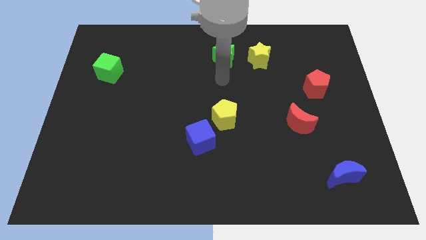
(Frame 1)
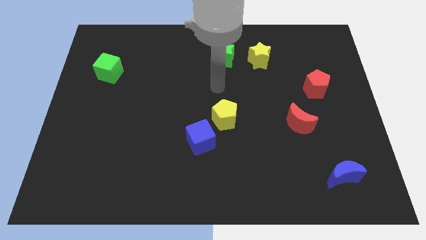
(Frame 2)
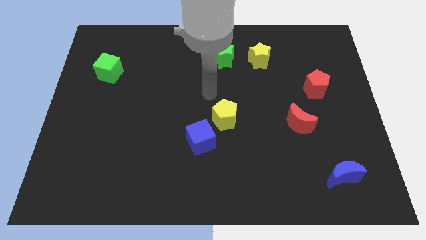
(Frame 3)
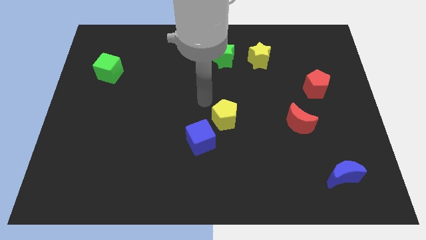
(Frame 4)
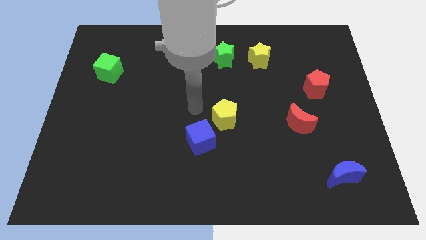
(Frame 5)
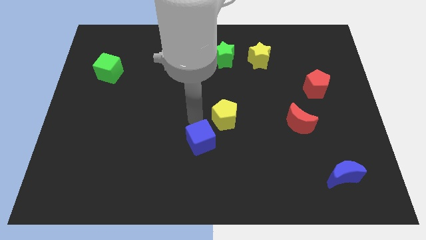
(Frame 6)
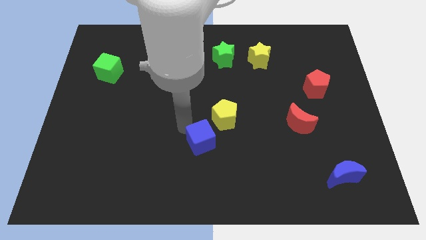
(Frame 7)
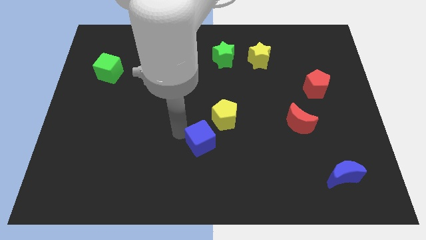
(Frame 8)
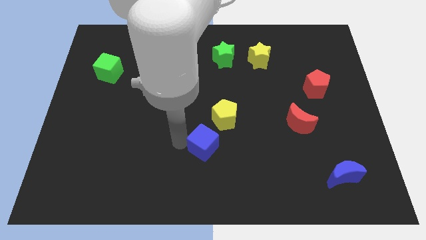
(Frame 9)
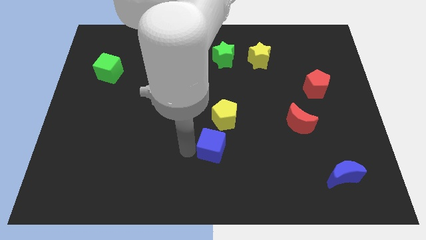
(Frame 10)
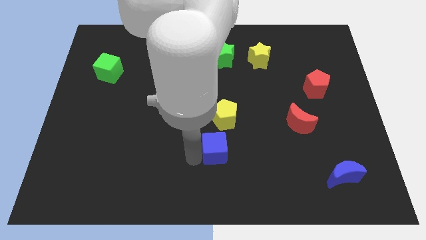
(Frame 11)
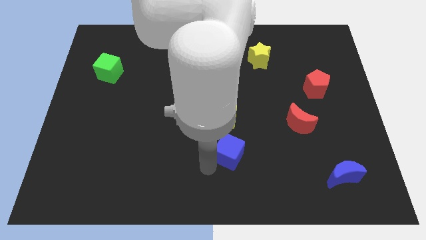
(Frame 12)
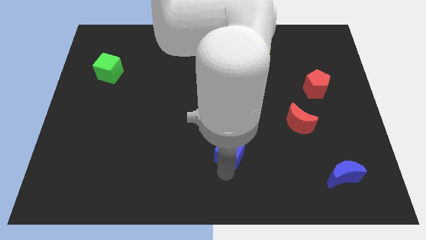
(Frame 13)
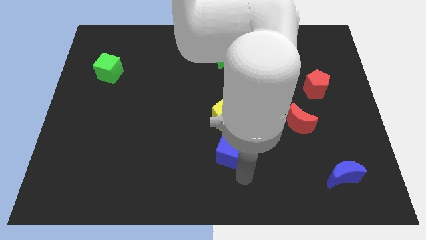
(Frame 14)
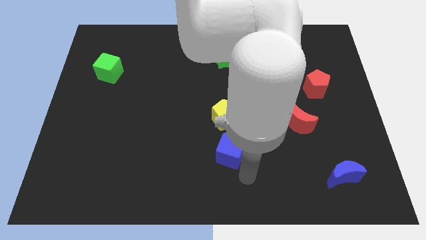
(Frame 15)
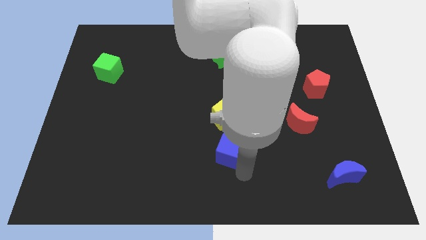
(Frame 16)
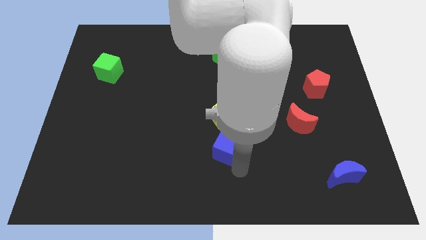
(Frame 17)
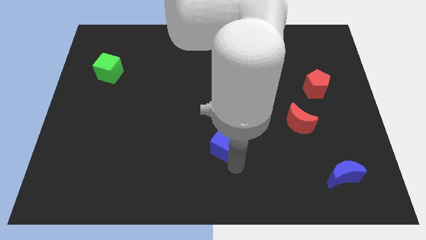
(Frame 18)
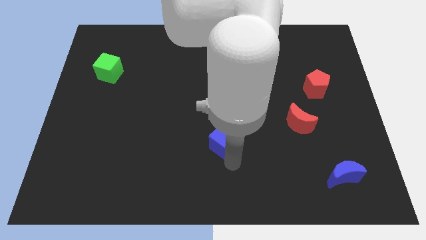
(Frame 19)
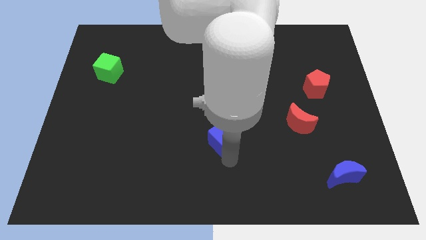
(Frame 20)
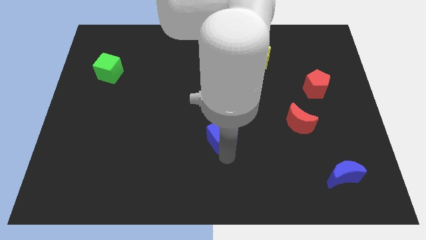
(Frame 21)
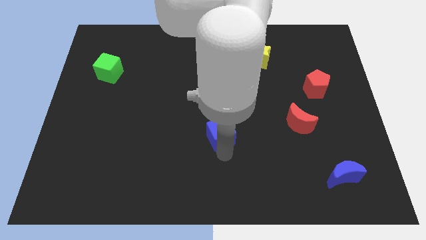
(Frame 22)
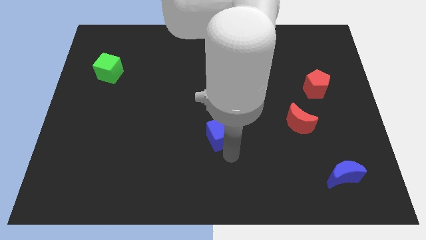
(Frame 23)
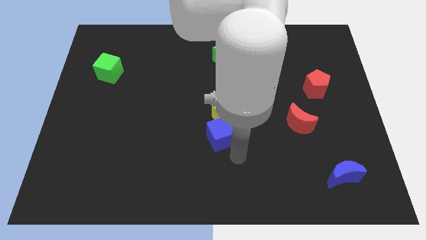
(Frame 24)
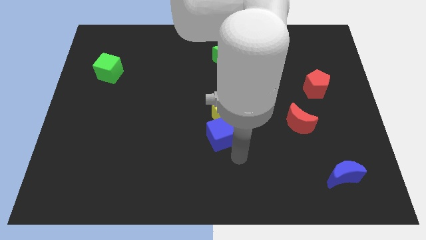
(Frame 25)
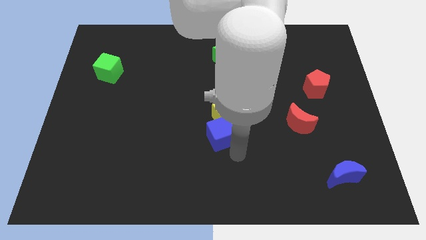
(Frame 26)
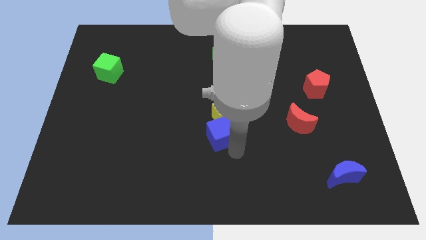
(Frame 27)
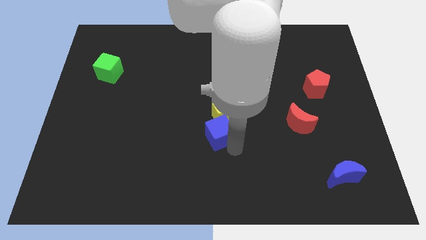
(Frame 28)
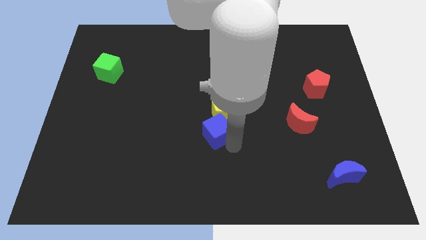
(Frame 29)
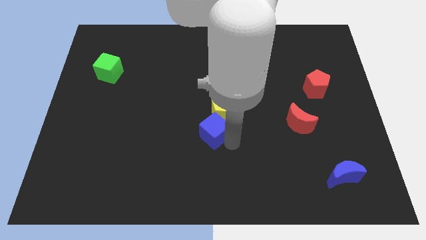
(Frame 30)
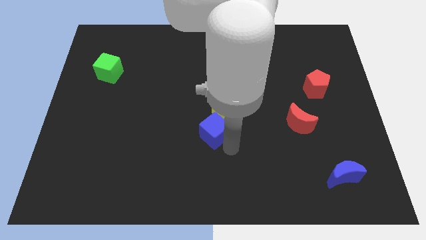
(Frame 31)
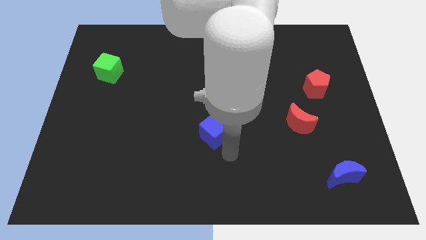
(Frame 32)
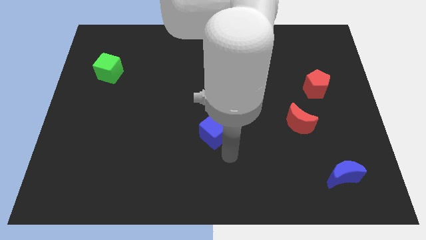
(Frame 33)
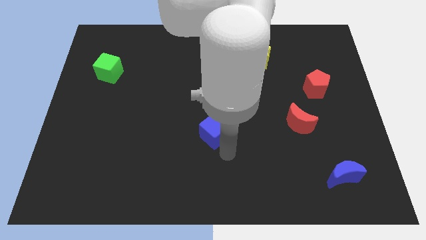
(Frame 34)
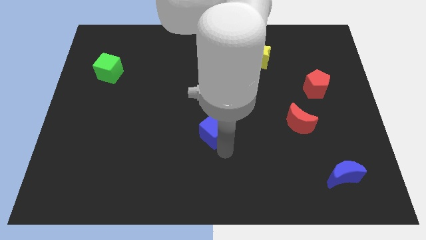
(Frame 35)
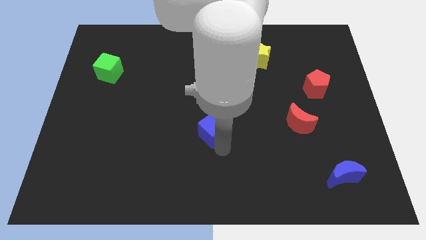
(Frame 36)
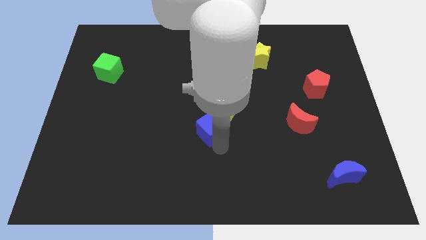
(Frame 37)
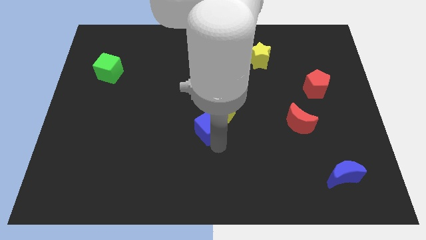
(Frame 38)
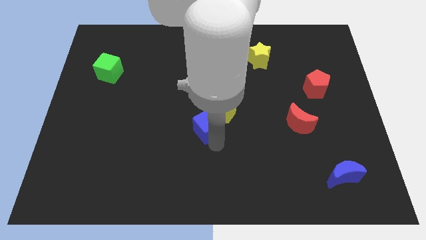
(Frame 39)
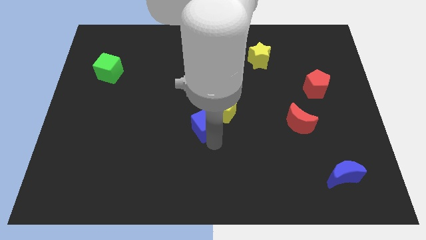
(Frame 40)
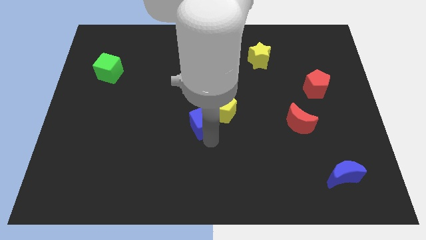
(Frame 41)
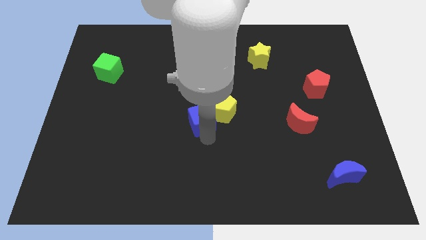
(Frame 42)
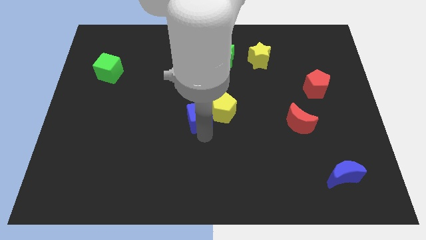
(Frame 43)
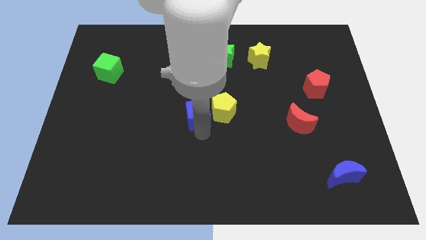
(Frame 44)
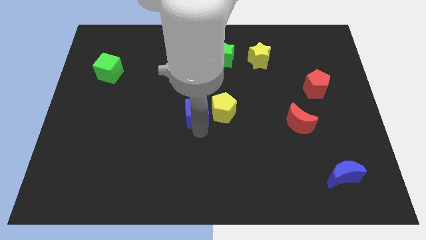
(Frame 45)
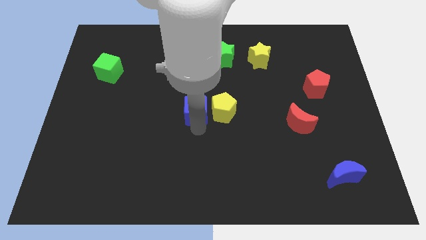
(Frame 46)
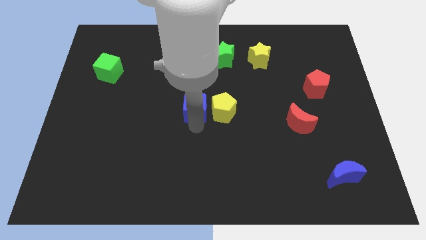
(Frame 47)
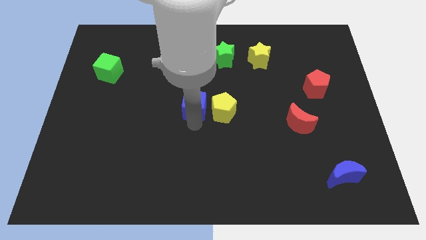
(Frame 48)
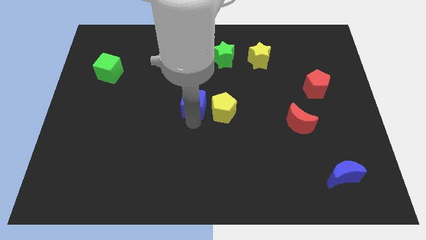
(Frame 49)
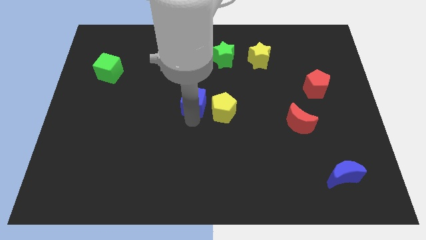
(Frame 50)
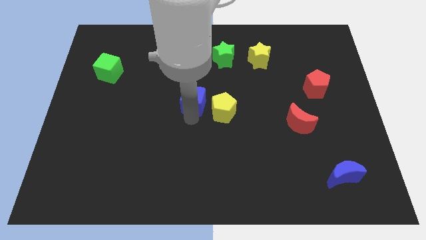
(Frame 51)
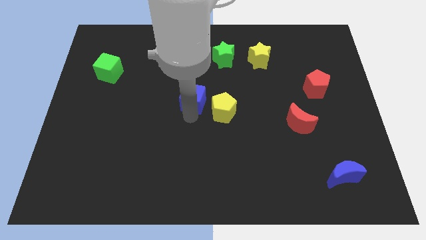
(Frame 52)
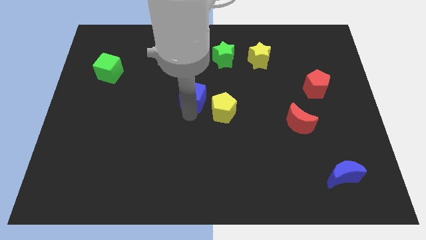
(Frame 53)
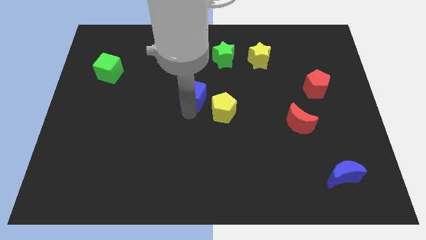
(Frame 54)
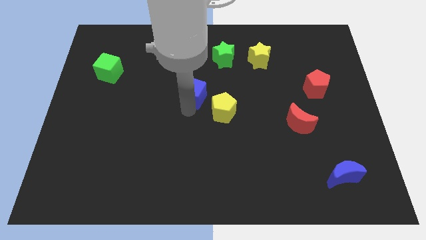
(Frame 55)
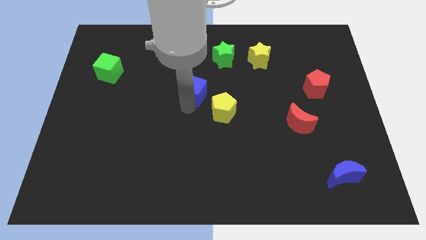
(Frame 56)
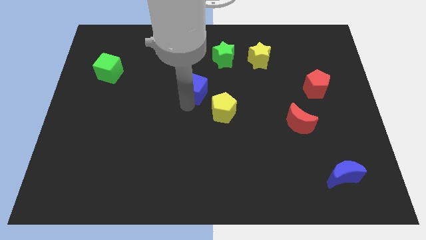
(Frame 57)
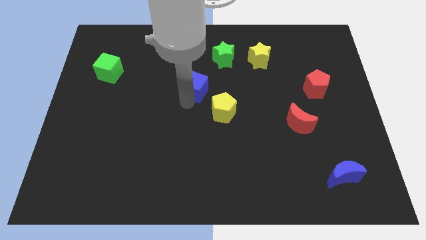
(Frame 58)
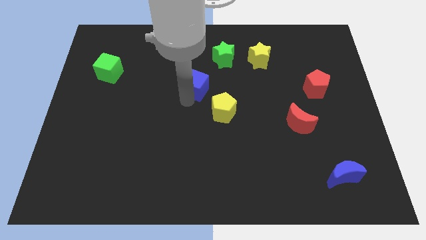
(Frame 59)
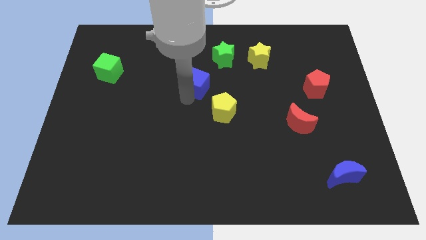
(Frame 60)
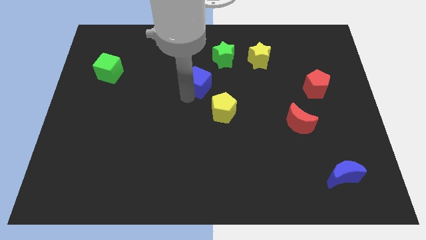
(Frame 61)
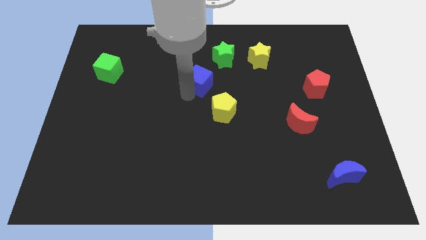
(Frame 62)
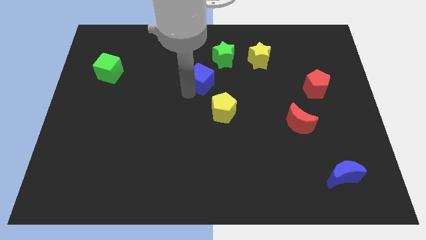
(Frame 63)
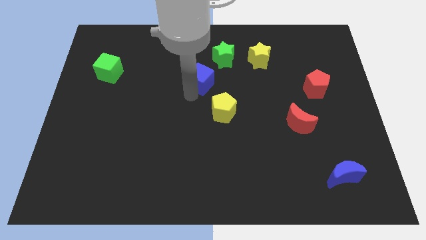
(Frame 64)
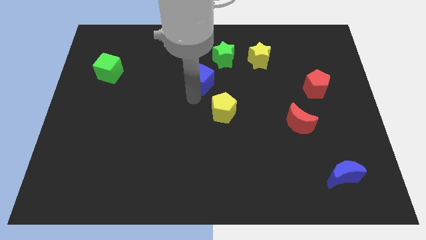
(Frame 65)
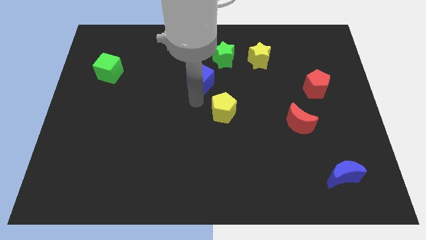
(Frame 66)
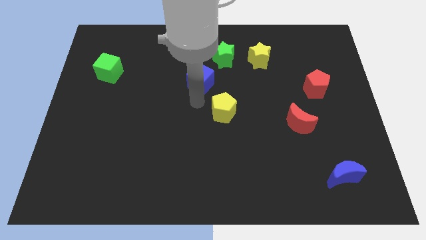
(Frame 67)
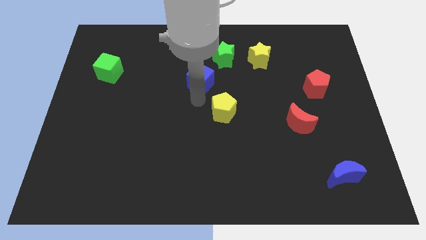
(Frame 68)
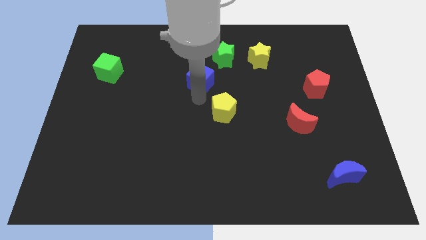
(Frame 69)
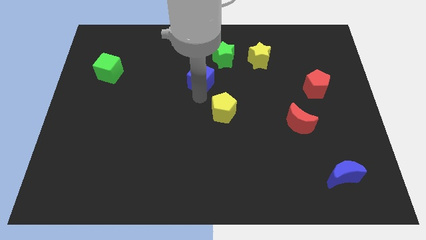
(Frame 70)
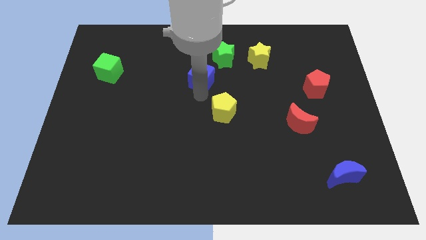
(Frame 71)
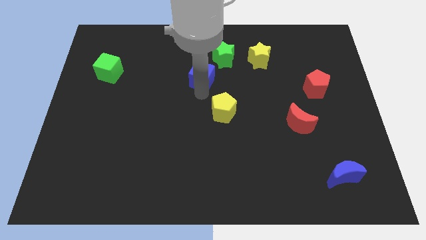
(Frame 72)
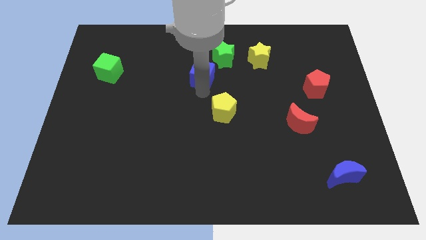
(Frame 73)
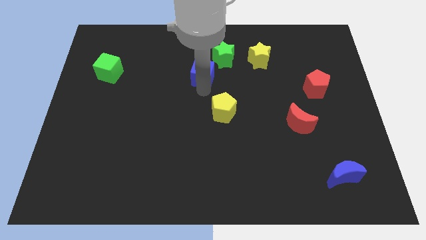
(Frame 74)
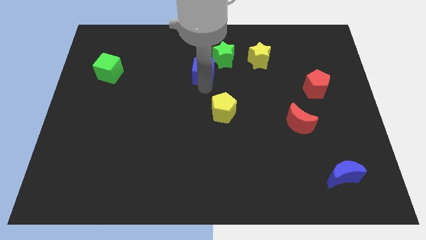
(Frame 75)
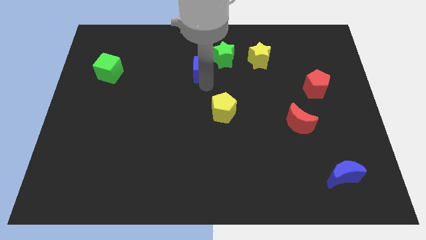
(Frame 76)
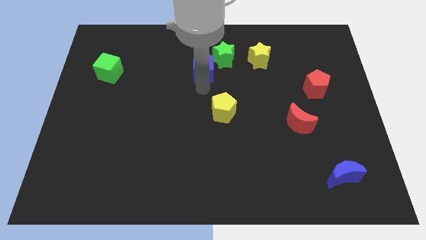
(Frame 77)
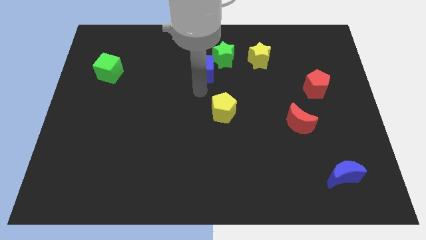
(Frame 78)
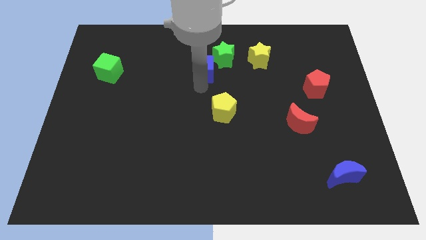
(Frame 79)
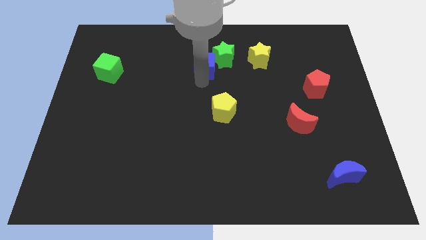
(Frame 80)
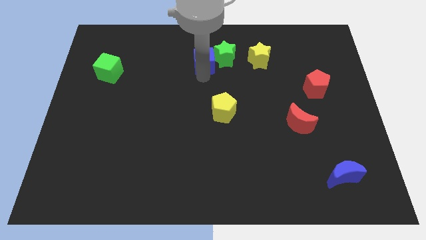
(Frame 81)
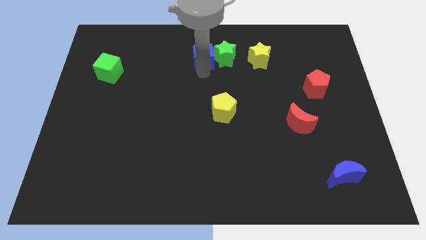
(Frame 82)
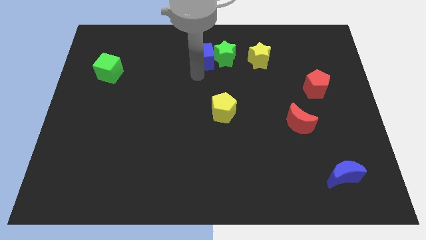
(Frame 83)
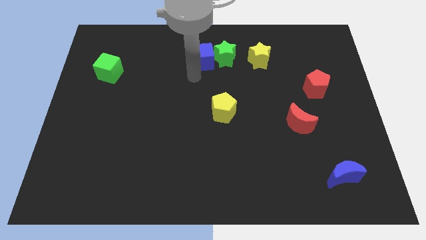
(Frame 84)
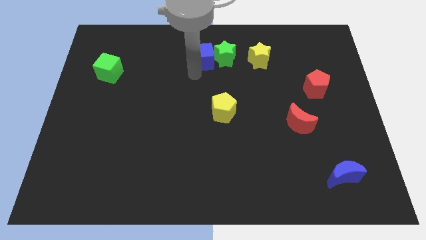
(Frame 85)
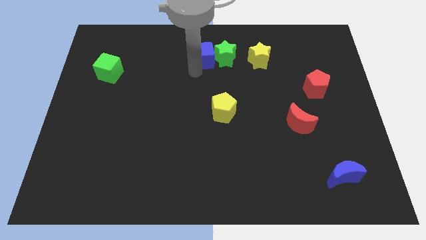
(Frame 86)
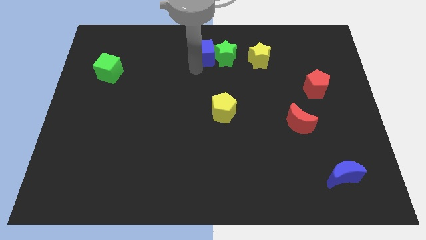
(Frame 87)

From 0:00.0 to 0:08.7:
push the blue cube to the top side
